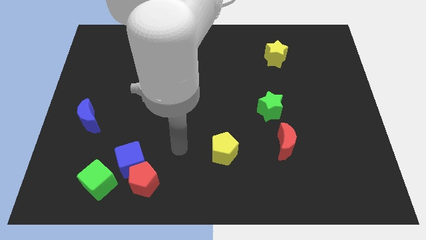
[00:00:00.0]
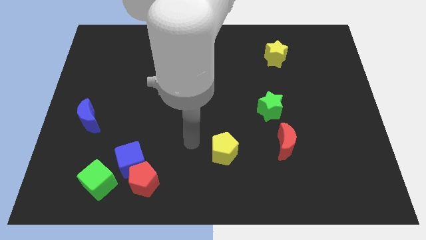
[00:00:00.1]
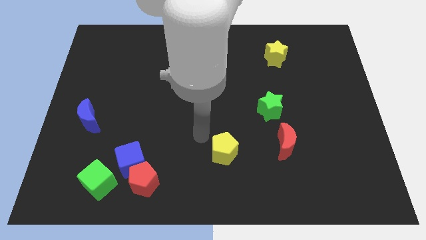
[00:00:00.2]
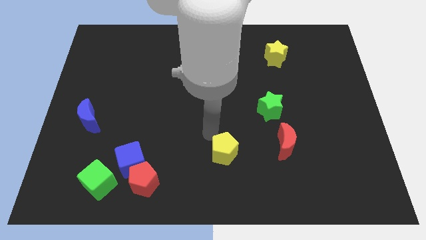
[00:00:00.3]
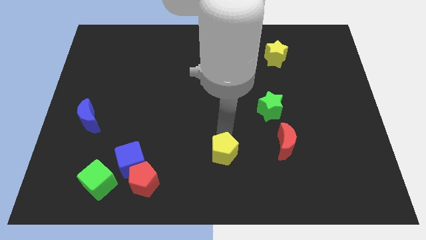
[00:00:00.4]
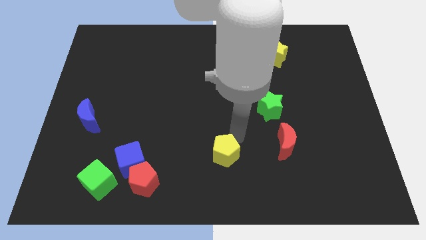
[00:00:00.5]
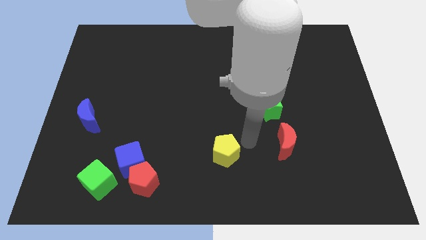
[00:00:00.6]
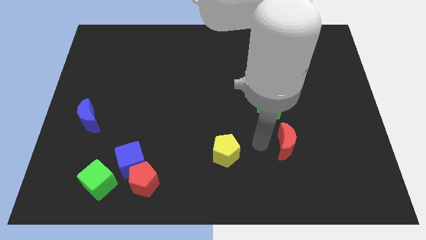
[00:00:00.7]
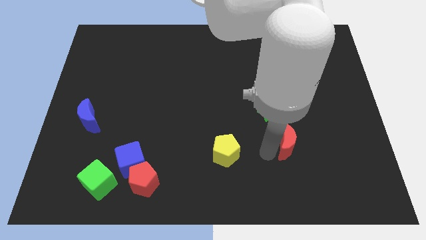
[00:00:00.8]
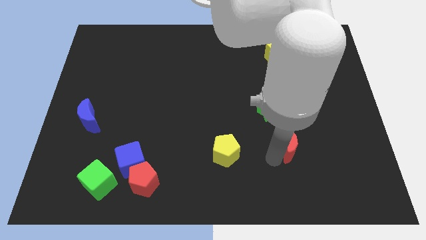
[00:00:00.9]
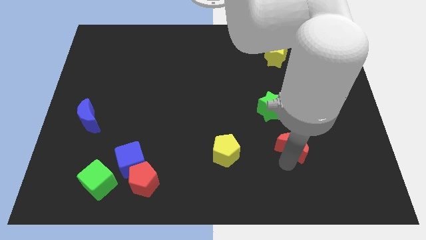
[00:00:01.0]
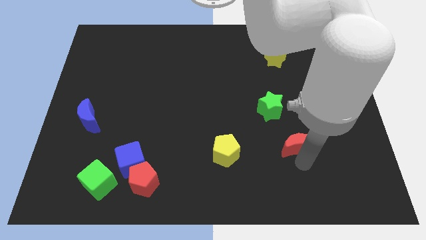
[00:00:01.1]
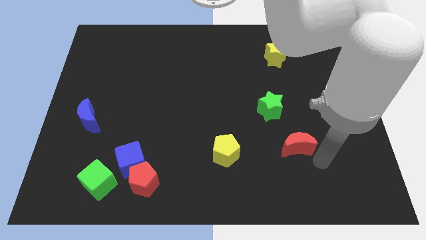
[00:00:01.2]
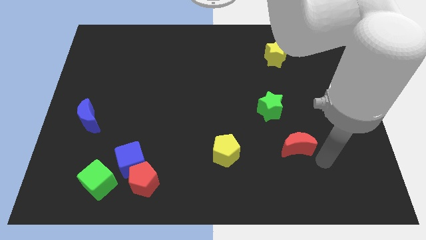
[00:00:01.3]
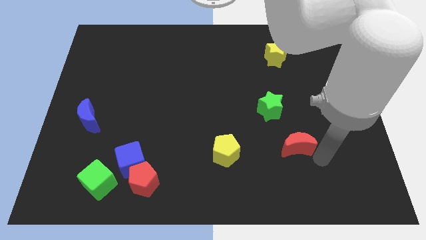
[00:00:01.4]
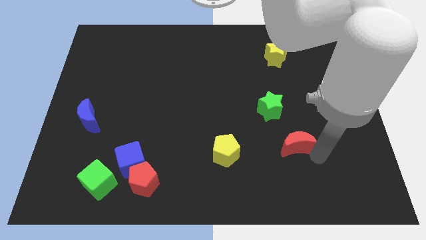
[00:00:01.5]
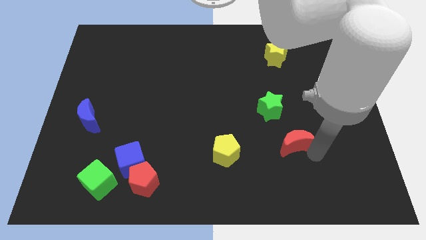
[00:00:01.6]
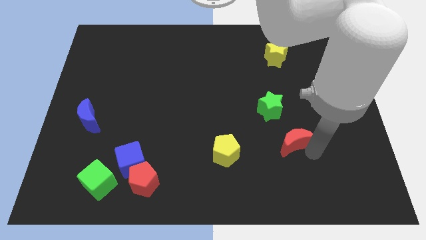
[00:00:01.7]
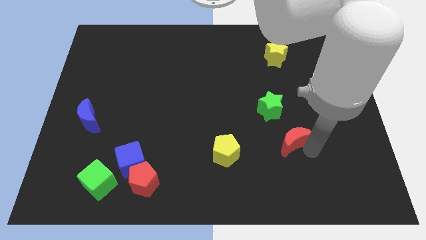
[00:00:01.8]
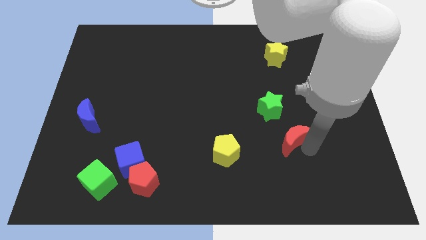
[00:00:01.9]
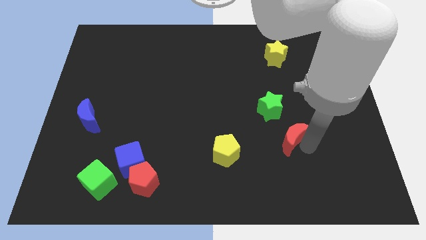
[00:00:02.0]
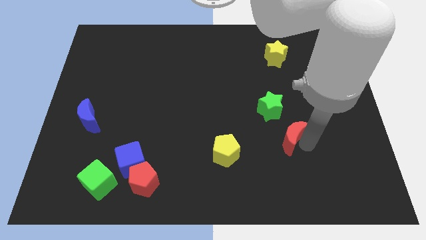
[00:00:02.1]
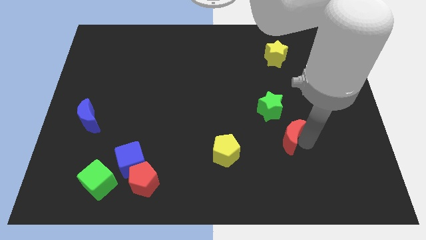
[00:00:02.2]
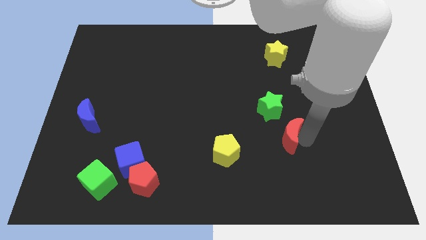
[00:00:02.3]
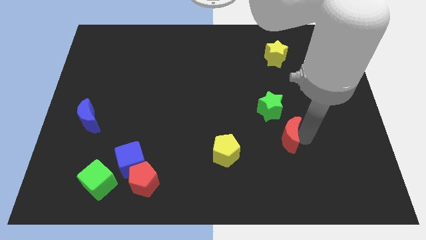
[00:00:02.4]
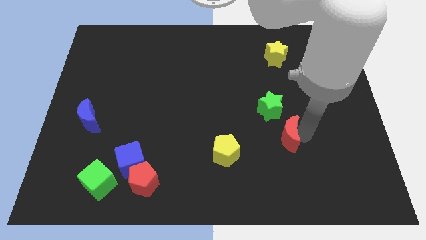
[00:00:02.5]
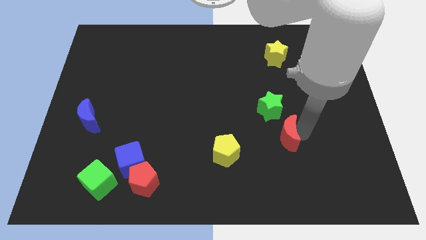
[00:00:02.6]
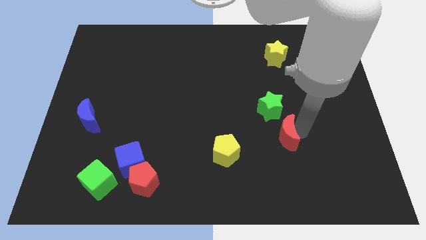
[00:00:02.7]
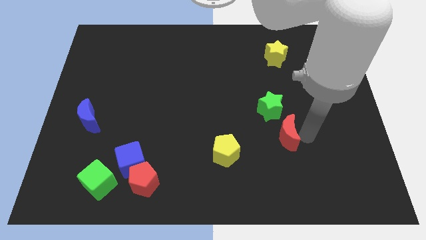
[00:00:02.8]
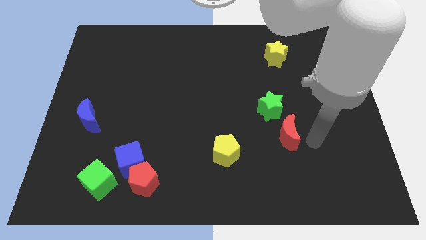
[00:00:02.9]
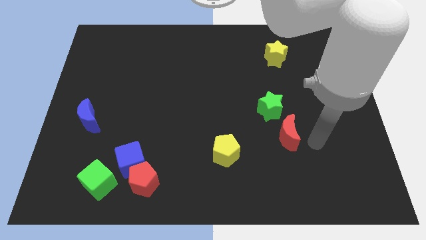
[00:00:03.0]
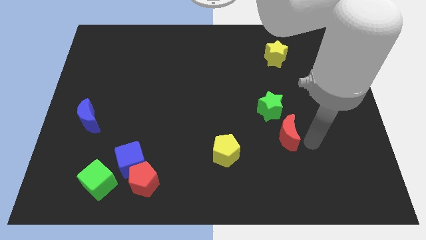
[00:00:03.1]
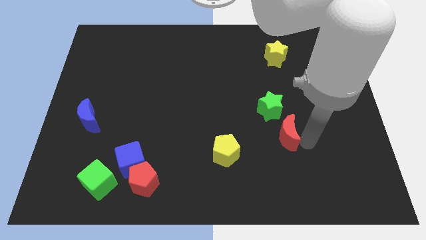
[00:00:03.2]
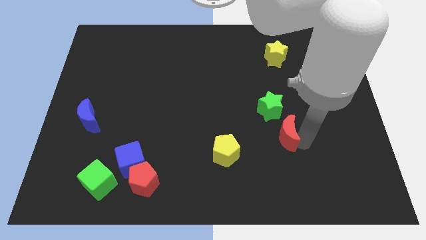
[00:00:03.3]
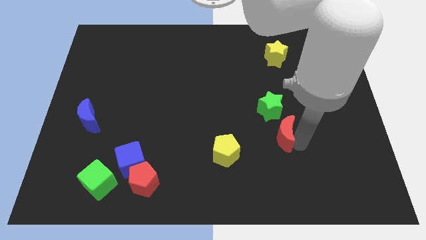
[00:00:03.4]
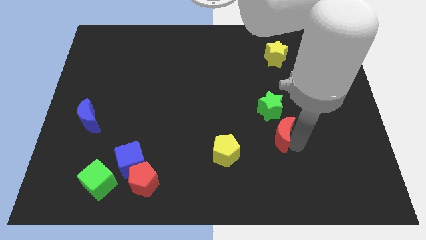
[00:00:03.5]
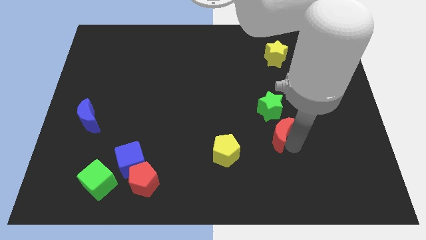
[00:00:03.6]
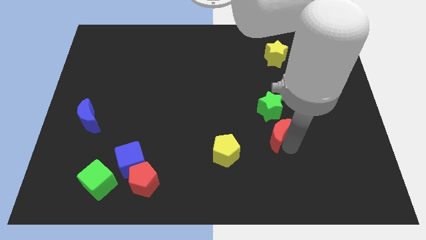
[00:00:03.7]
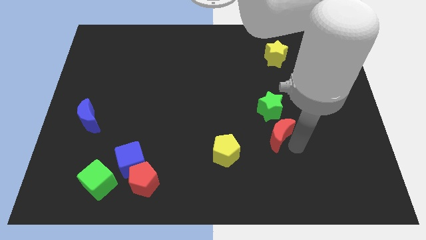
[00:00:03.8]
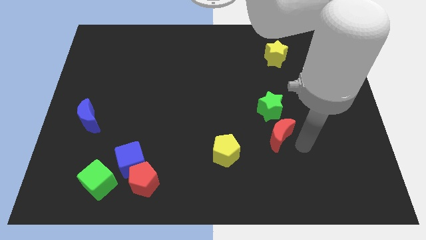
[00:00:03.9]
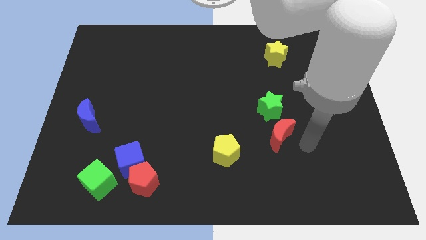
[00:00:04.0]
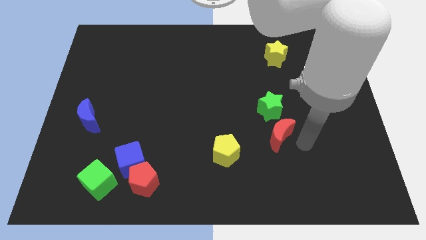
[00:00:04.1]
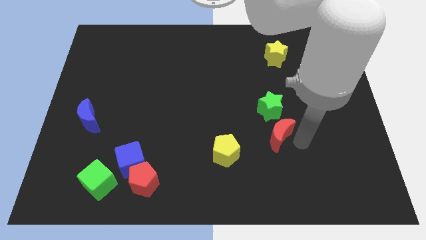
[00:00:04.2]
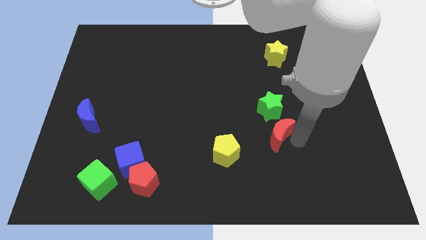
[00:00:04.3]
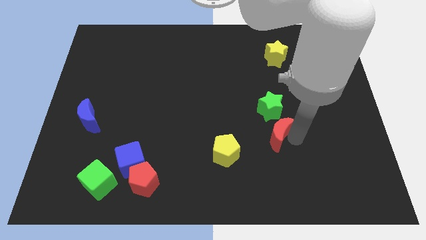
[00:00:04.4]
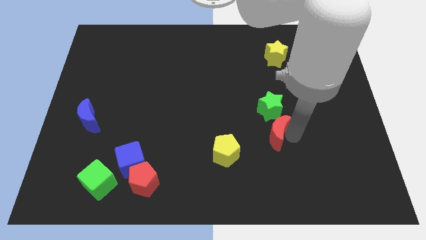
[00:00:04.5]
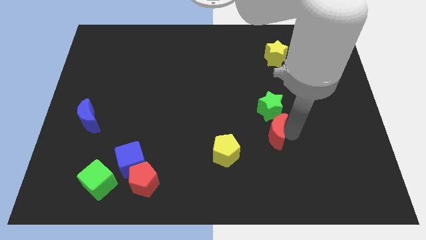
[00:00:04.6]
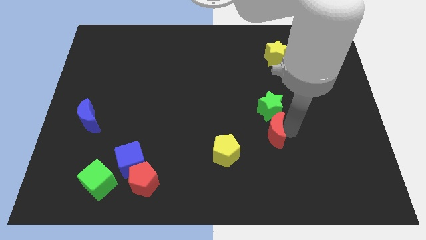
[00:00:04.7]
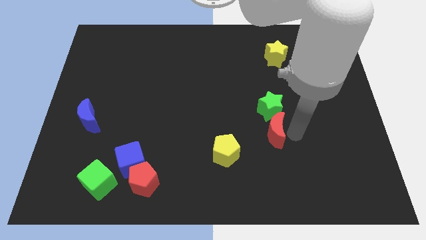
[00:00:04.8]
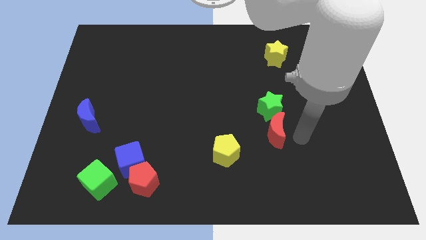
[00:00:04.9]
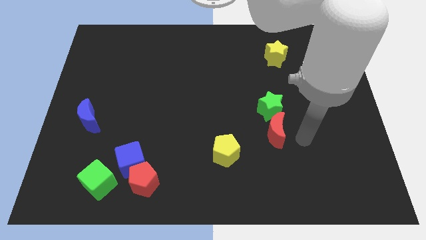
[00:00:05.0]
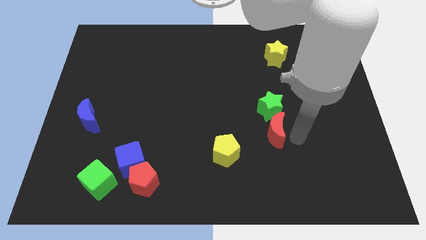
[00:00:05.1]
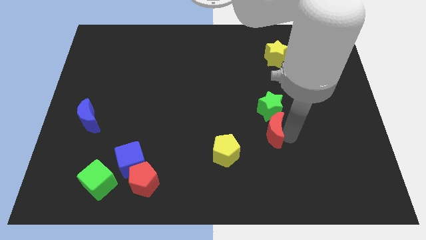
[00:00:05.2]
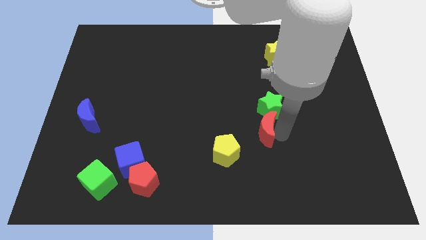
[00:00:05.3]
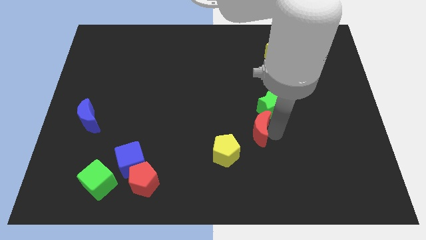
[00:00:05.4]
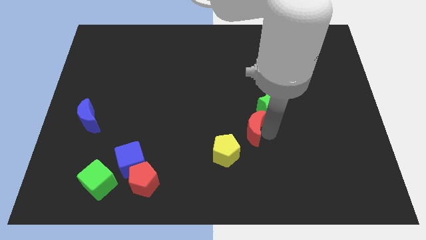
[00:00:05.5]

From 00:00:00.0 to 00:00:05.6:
slide the red moon to the middle of the board

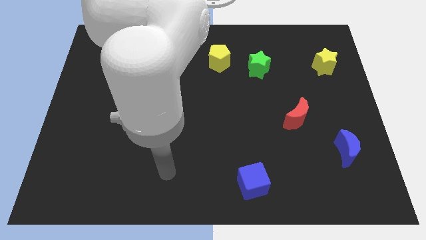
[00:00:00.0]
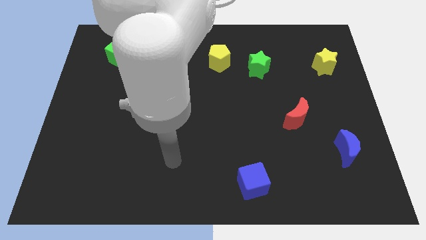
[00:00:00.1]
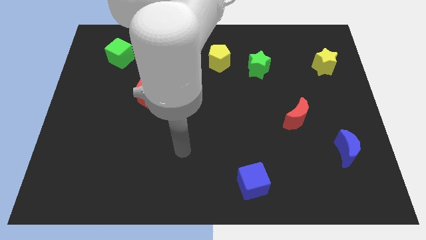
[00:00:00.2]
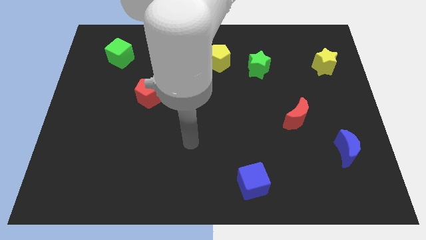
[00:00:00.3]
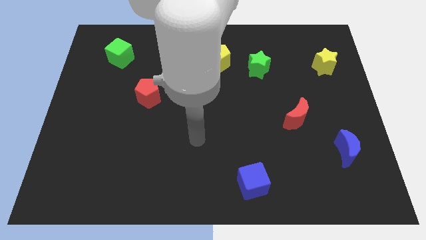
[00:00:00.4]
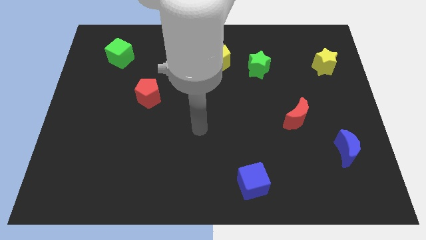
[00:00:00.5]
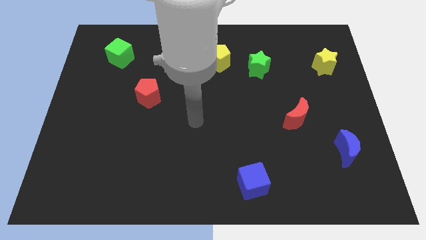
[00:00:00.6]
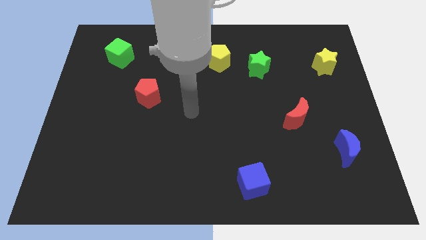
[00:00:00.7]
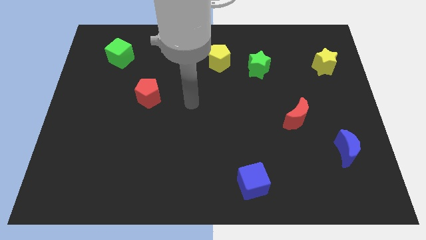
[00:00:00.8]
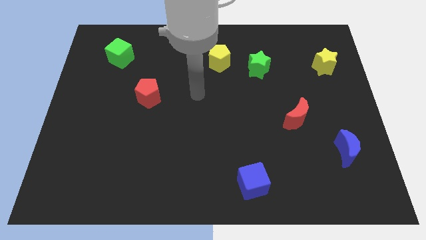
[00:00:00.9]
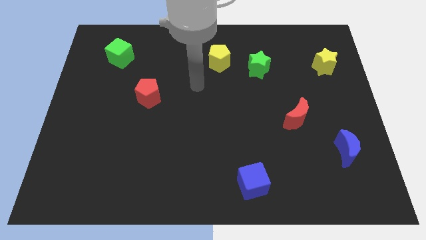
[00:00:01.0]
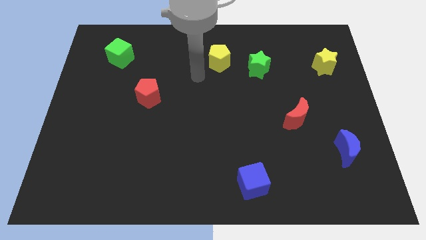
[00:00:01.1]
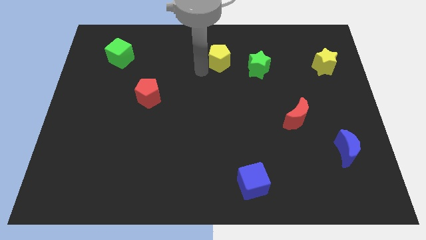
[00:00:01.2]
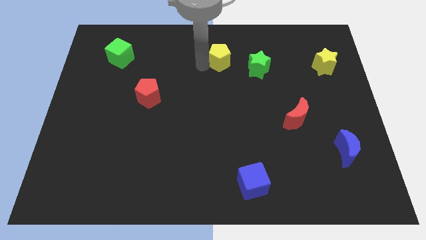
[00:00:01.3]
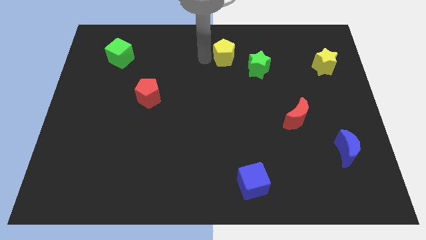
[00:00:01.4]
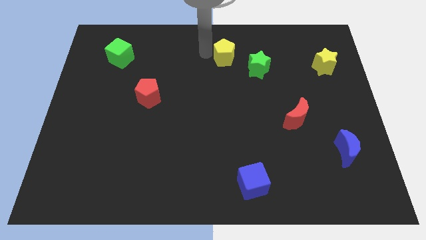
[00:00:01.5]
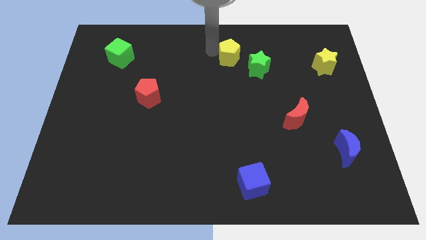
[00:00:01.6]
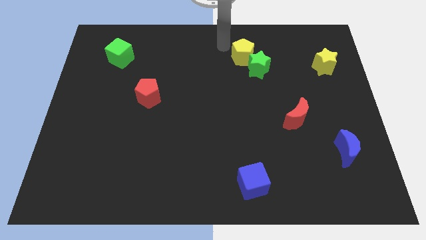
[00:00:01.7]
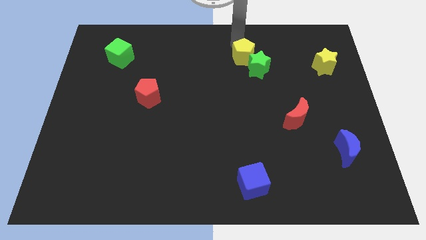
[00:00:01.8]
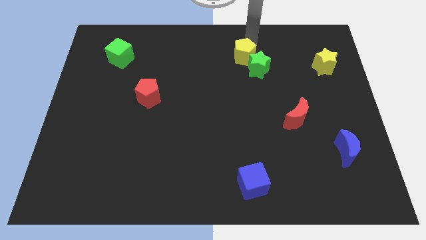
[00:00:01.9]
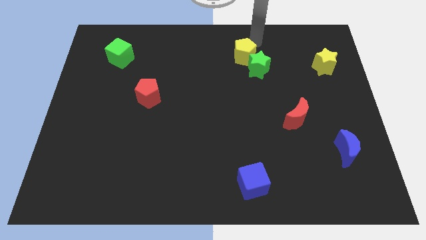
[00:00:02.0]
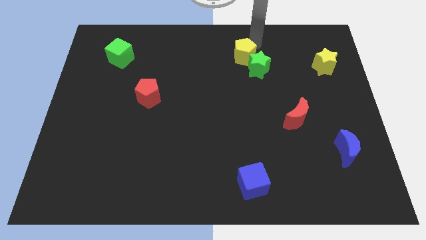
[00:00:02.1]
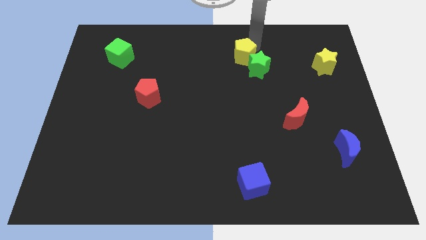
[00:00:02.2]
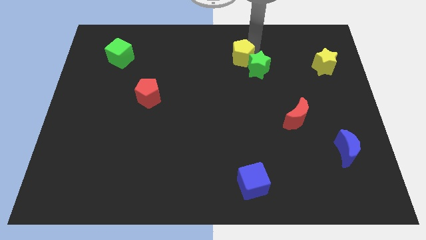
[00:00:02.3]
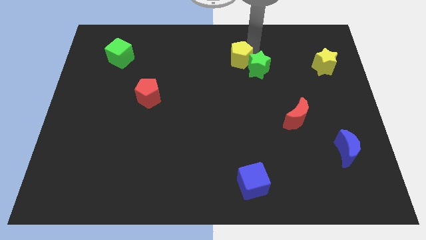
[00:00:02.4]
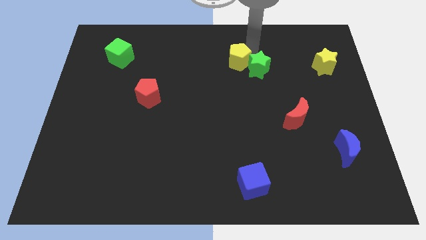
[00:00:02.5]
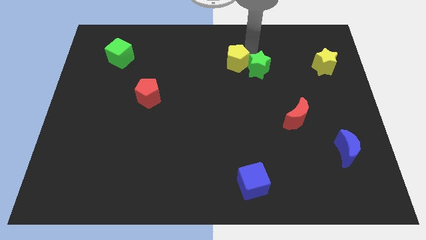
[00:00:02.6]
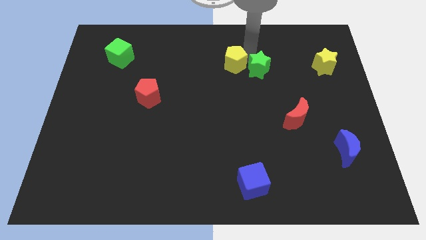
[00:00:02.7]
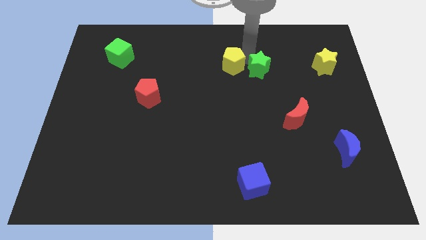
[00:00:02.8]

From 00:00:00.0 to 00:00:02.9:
slide the yellow pentagon to the center
